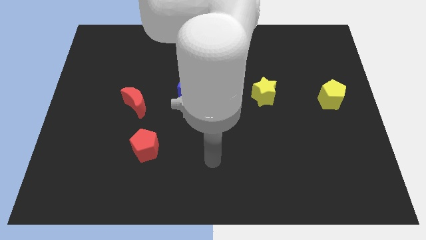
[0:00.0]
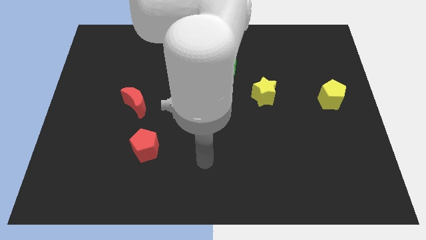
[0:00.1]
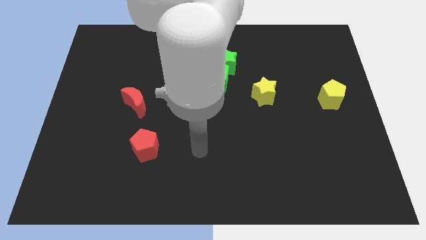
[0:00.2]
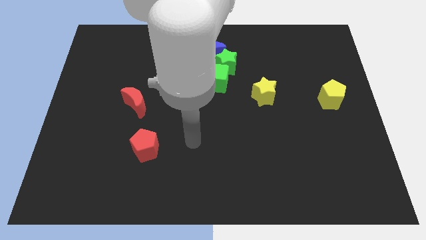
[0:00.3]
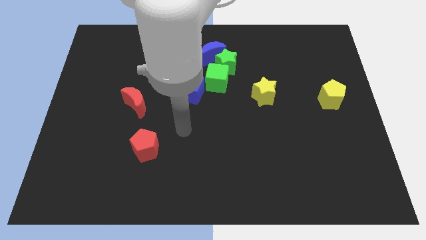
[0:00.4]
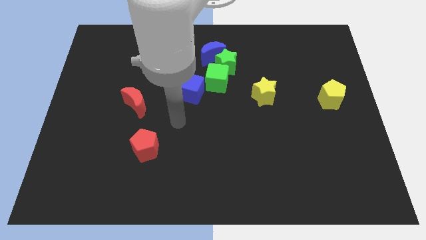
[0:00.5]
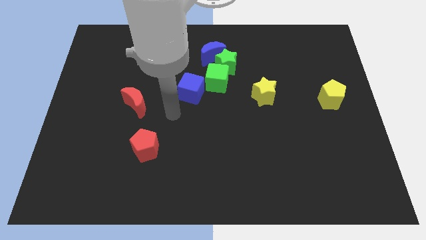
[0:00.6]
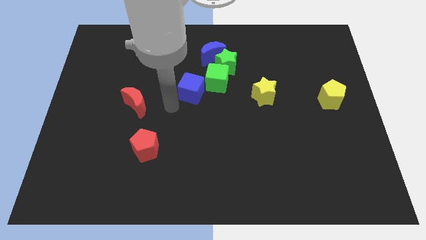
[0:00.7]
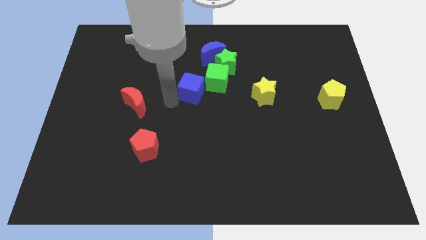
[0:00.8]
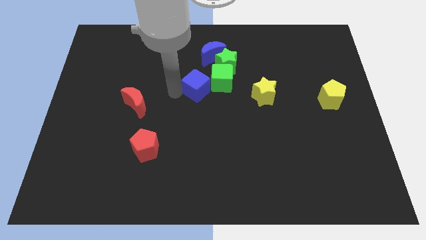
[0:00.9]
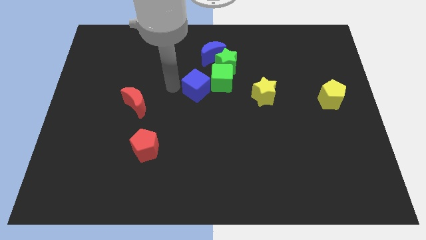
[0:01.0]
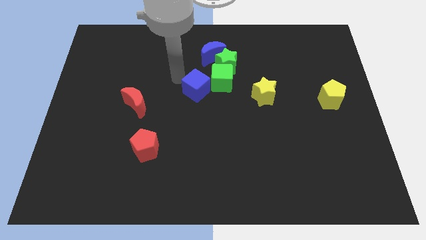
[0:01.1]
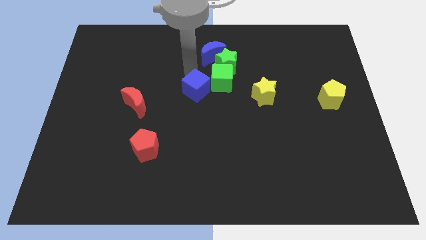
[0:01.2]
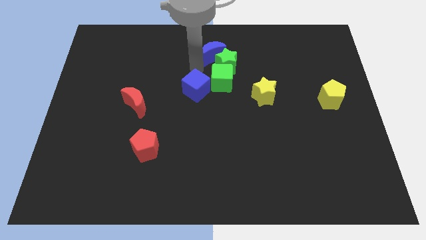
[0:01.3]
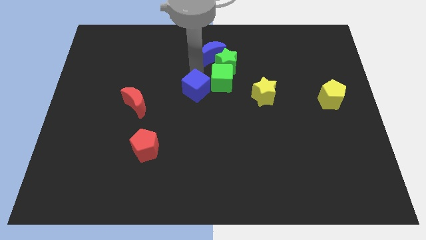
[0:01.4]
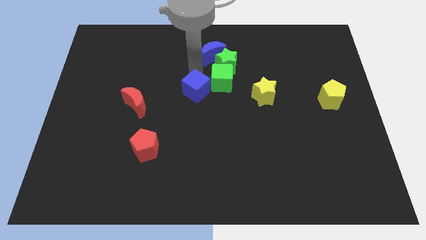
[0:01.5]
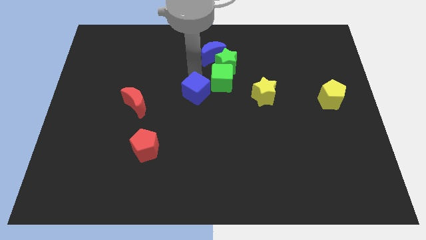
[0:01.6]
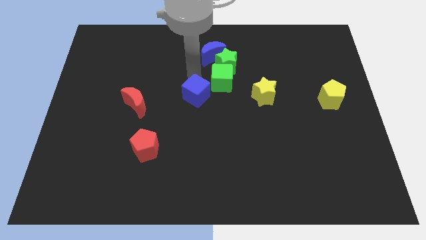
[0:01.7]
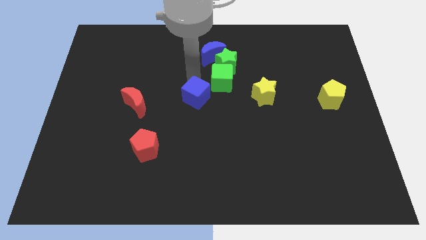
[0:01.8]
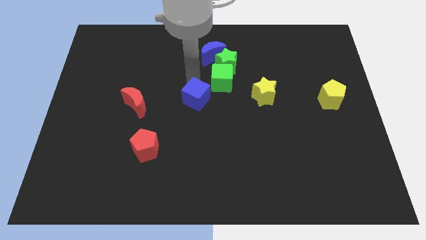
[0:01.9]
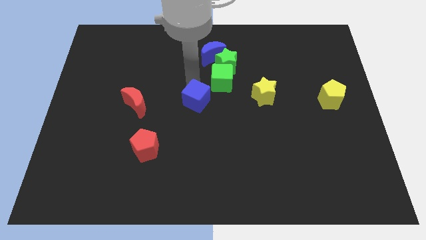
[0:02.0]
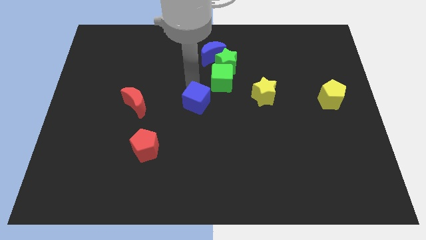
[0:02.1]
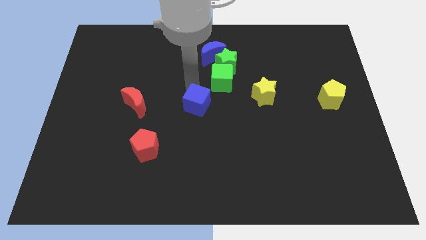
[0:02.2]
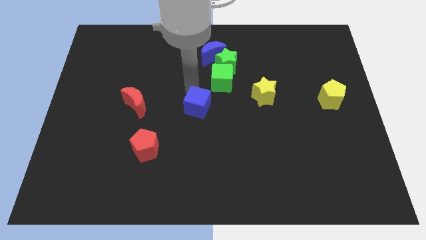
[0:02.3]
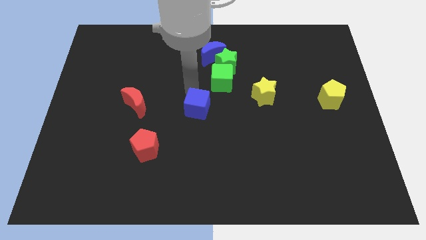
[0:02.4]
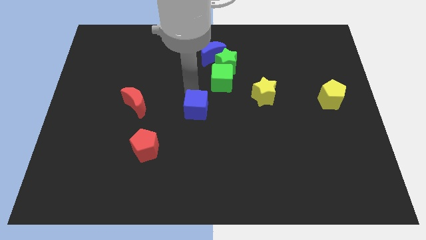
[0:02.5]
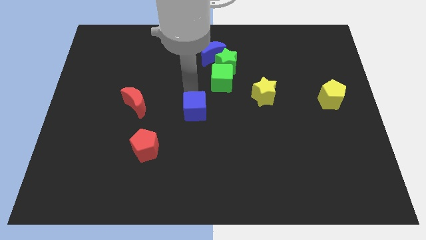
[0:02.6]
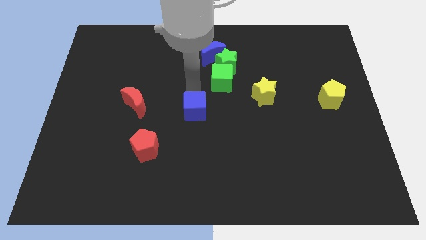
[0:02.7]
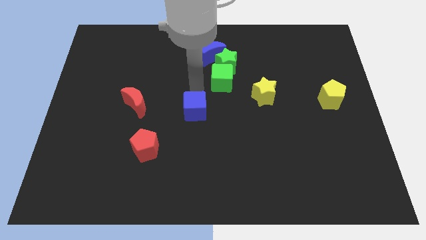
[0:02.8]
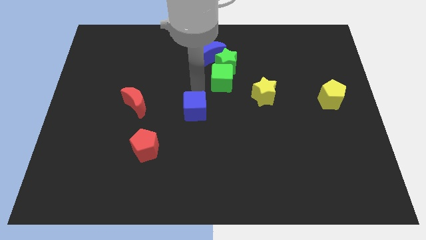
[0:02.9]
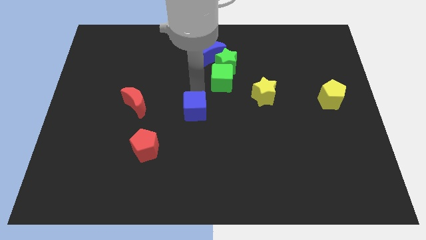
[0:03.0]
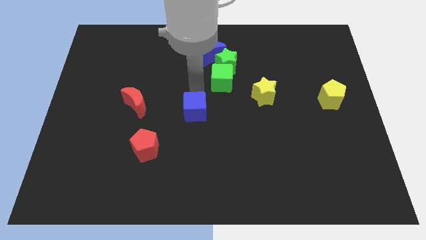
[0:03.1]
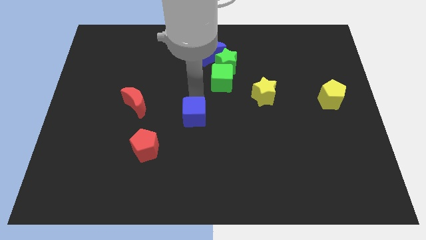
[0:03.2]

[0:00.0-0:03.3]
slide the blue cube a little downwards

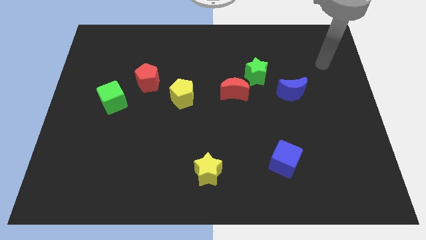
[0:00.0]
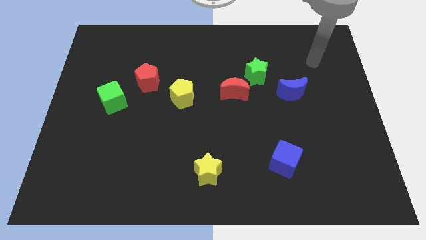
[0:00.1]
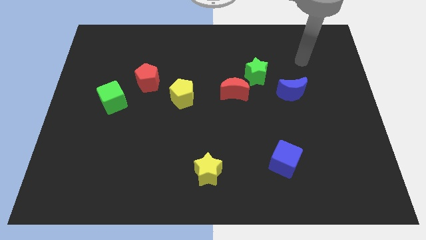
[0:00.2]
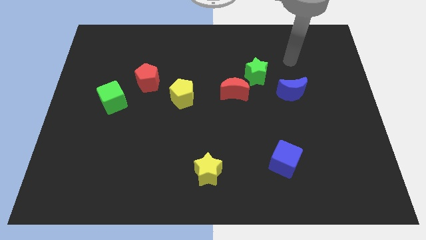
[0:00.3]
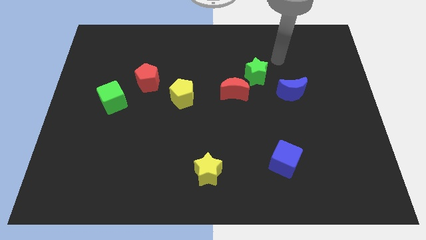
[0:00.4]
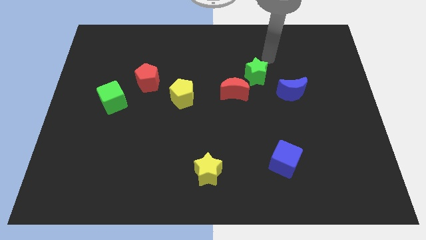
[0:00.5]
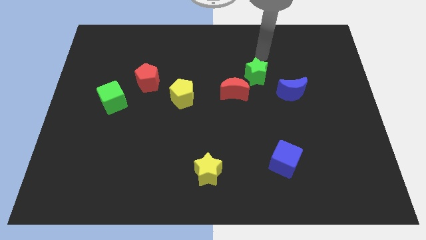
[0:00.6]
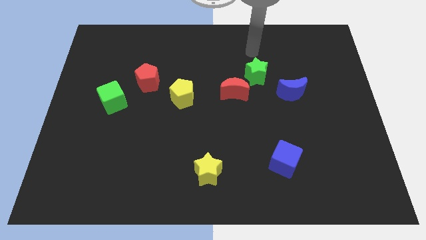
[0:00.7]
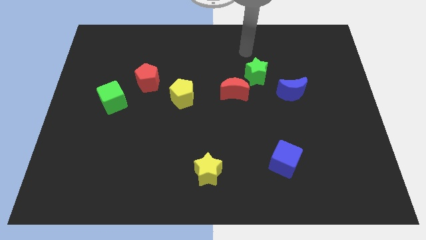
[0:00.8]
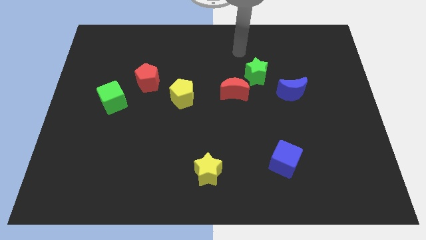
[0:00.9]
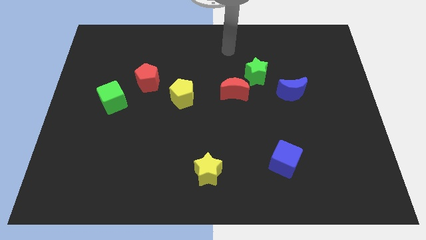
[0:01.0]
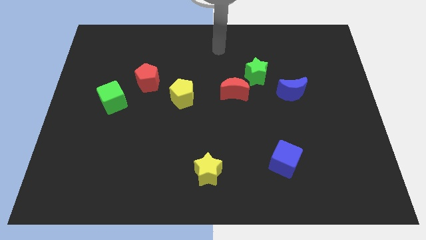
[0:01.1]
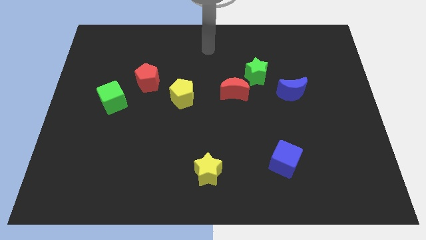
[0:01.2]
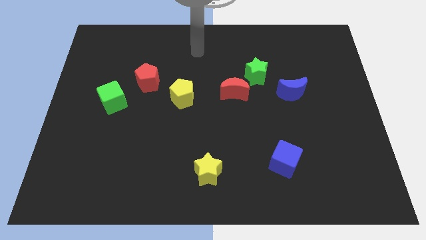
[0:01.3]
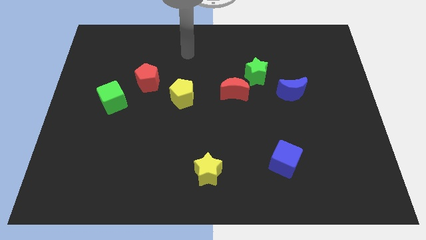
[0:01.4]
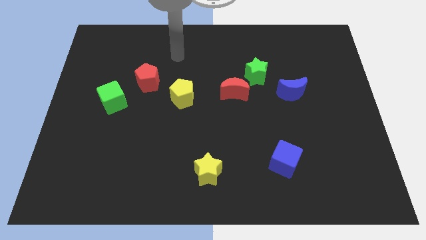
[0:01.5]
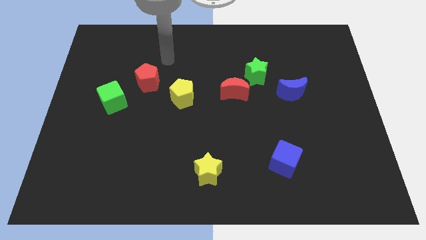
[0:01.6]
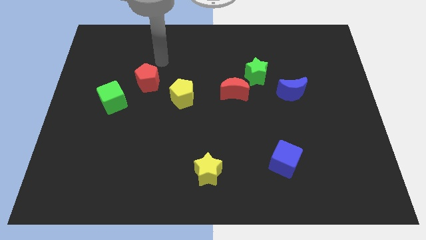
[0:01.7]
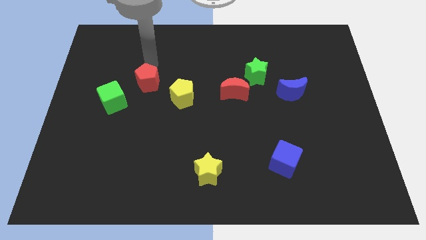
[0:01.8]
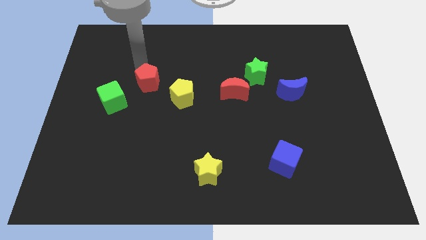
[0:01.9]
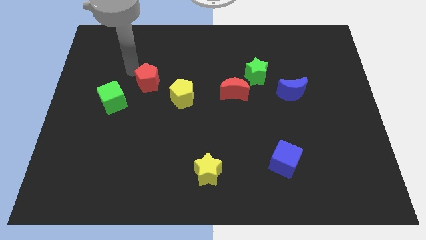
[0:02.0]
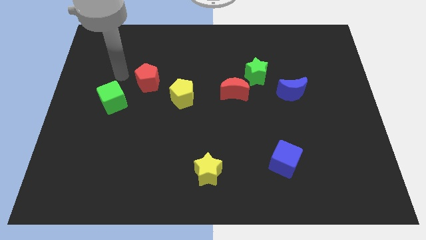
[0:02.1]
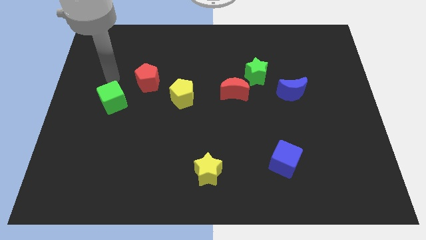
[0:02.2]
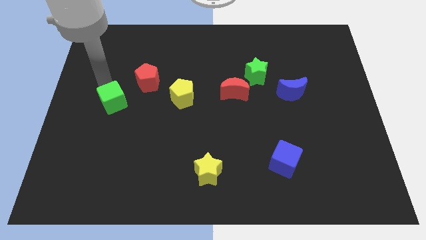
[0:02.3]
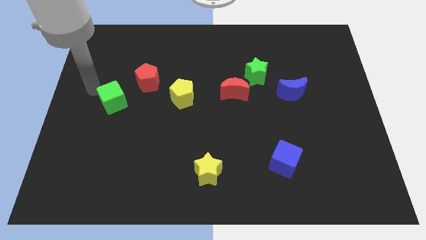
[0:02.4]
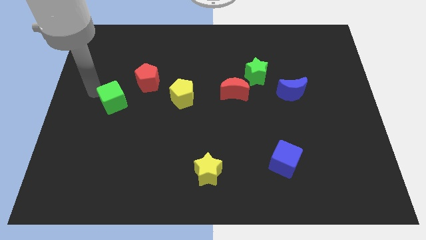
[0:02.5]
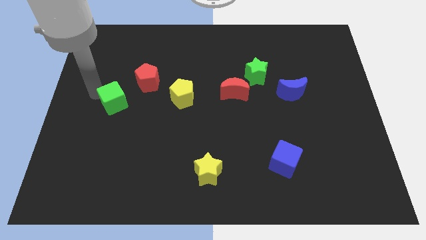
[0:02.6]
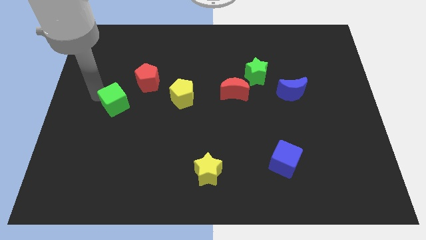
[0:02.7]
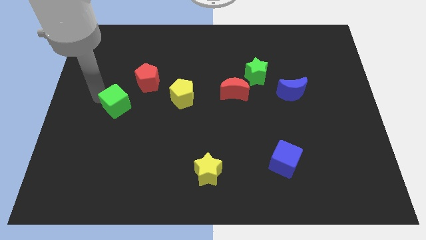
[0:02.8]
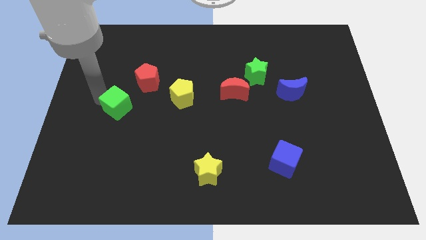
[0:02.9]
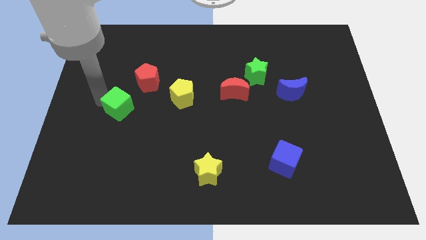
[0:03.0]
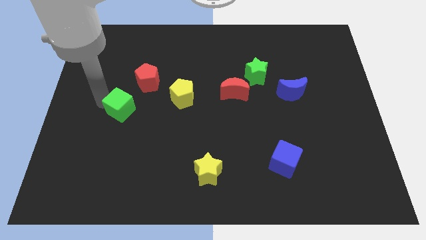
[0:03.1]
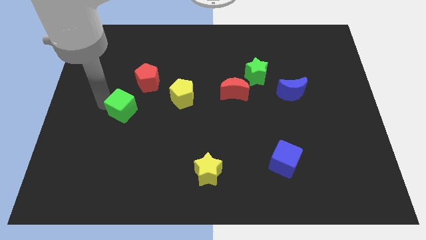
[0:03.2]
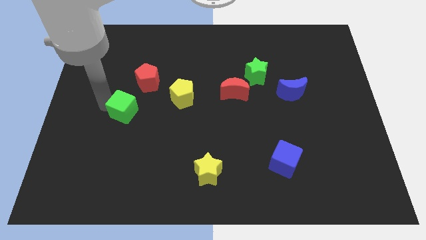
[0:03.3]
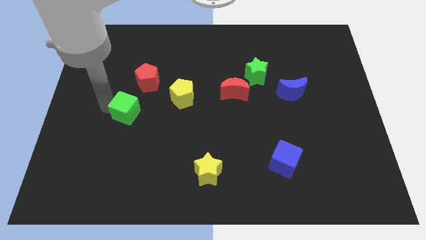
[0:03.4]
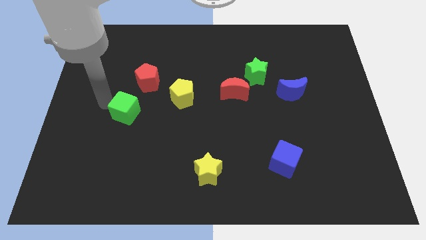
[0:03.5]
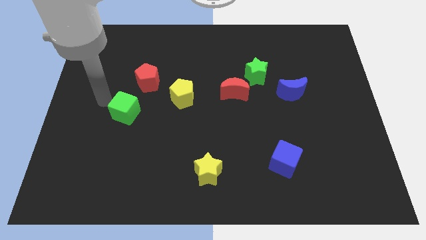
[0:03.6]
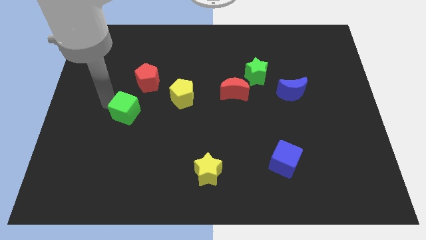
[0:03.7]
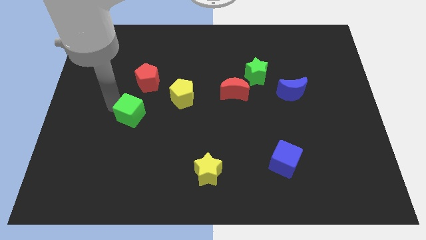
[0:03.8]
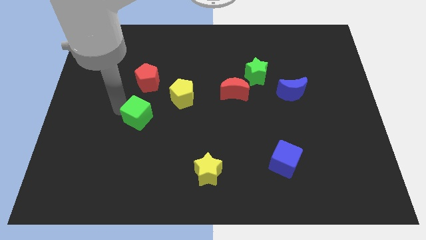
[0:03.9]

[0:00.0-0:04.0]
slightly slide the green cube down and to the right

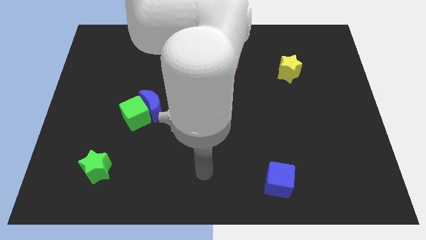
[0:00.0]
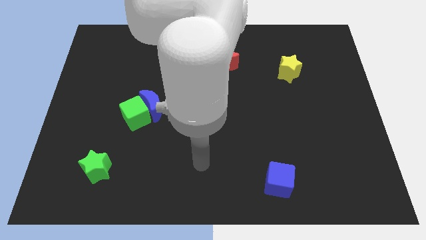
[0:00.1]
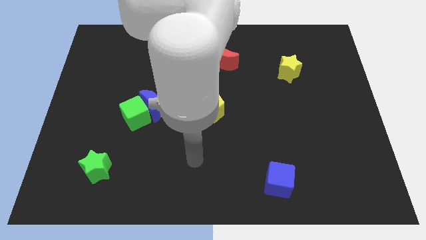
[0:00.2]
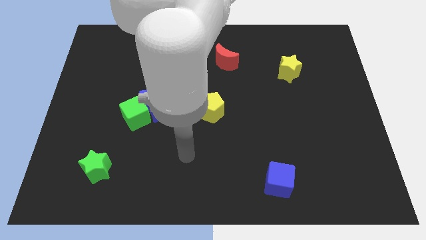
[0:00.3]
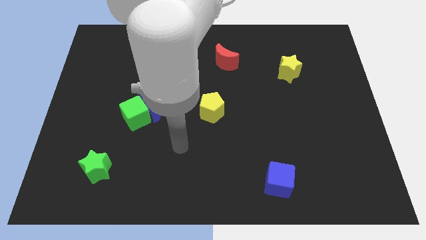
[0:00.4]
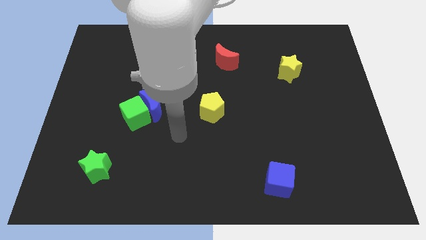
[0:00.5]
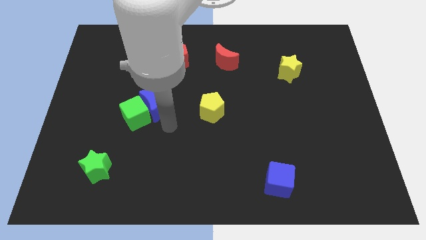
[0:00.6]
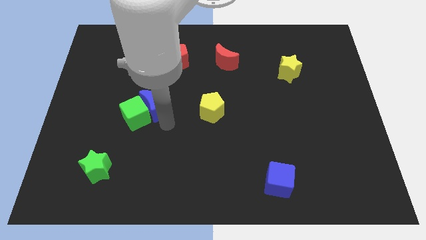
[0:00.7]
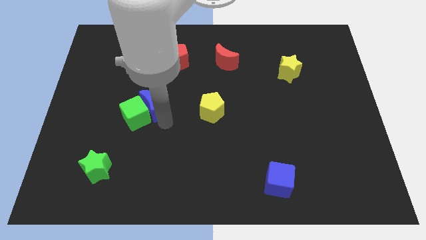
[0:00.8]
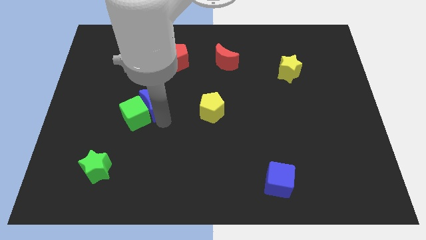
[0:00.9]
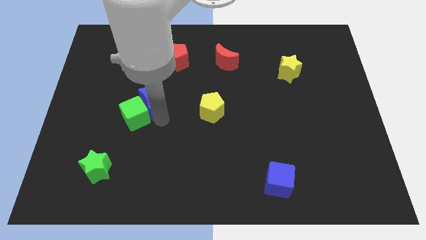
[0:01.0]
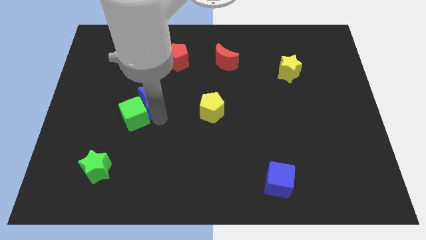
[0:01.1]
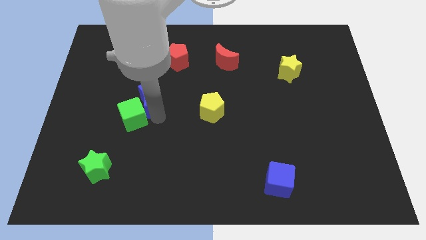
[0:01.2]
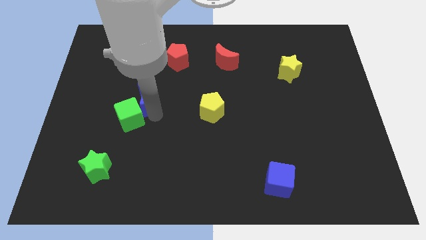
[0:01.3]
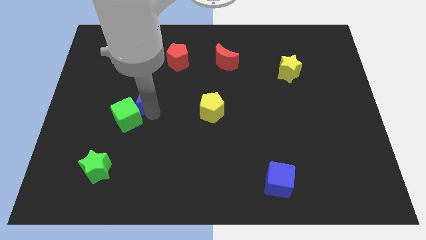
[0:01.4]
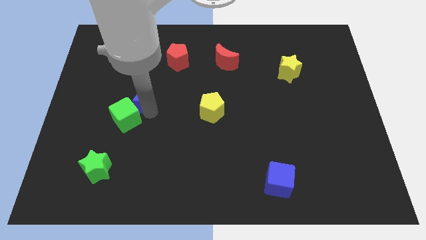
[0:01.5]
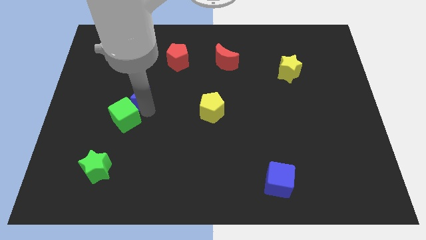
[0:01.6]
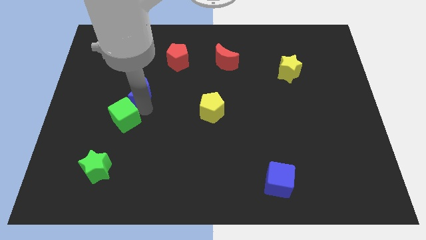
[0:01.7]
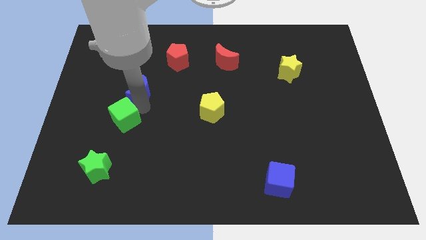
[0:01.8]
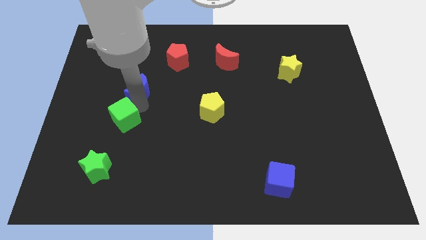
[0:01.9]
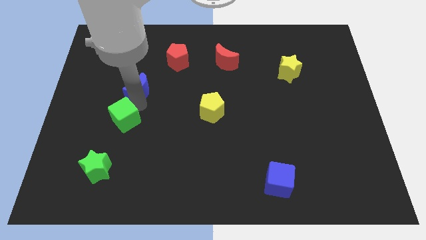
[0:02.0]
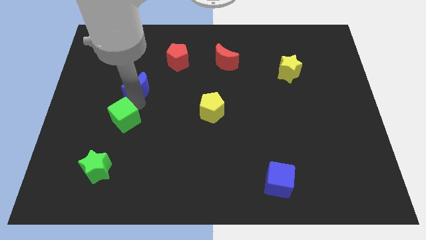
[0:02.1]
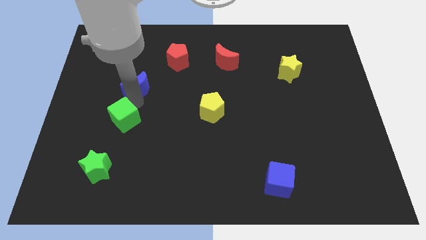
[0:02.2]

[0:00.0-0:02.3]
push the blue moon a little bit upwards and to the left
